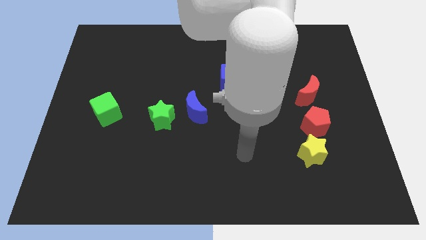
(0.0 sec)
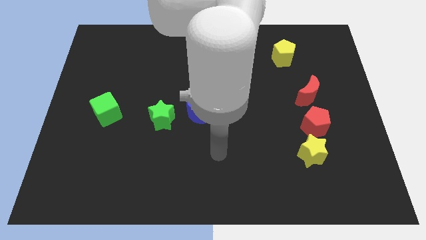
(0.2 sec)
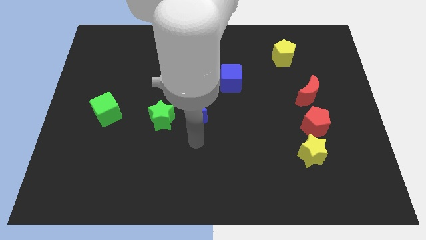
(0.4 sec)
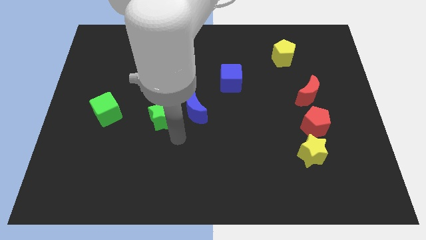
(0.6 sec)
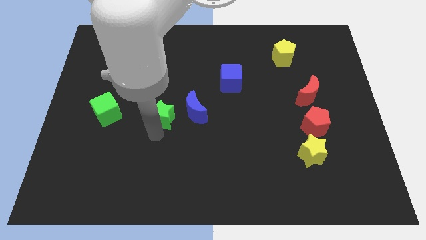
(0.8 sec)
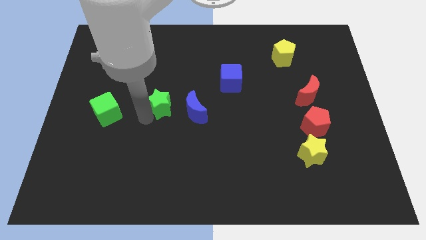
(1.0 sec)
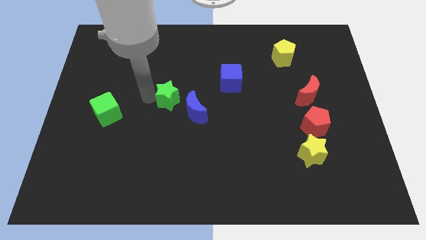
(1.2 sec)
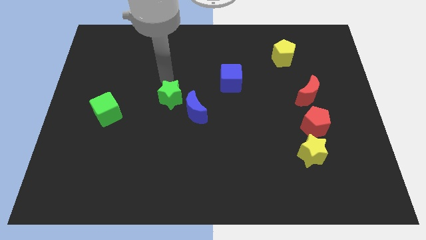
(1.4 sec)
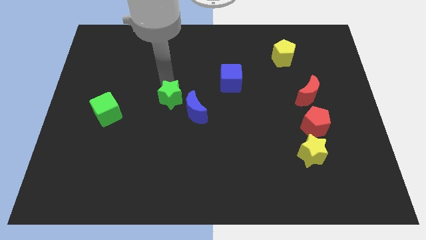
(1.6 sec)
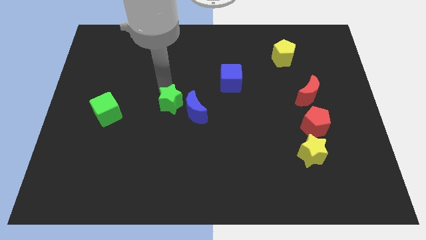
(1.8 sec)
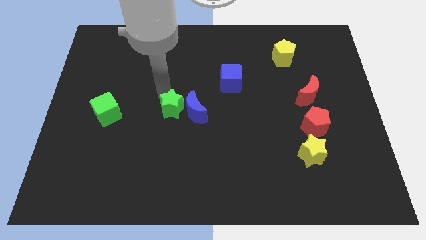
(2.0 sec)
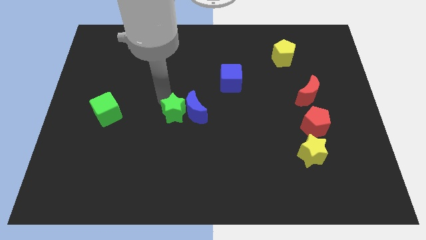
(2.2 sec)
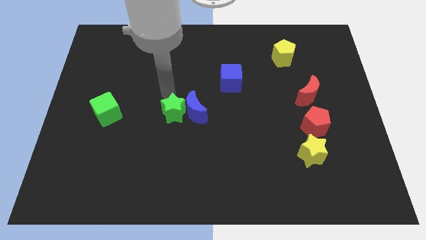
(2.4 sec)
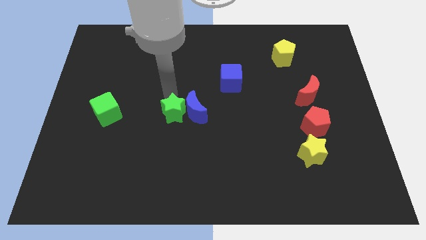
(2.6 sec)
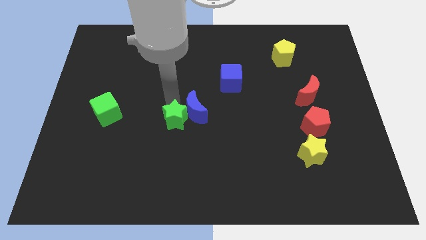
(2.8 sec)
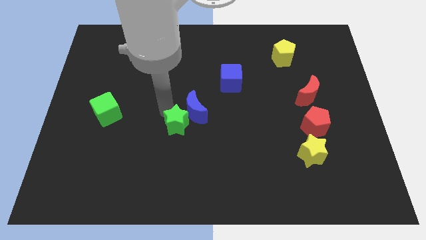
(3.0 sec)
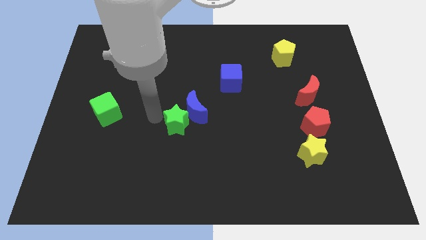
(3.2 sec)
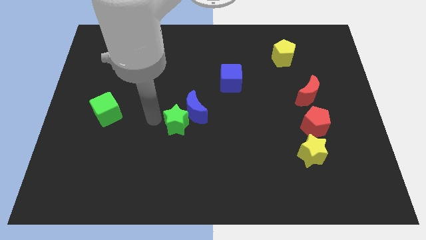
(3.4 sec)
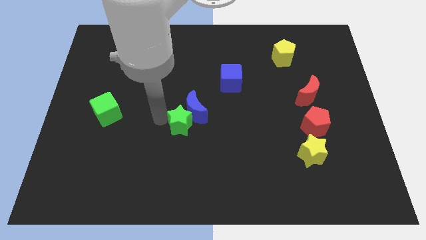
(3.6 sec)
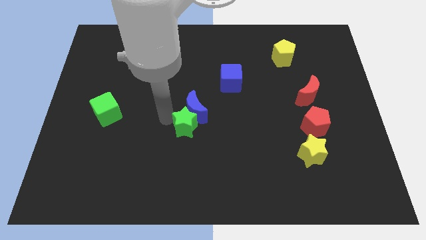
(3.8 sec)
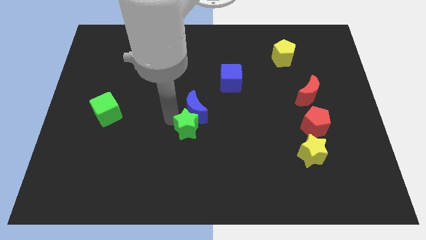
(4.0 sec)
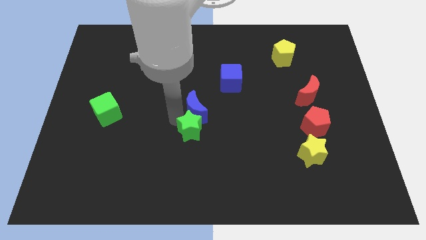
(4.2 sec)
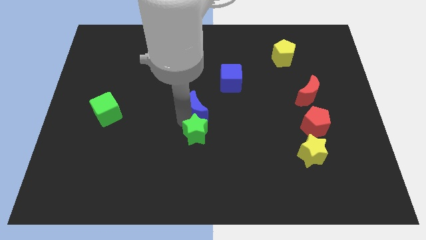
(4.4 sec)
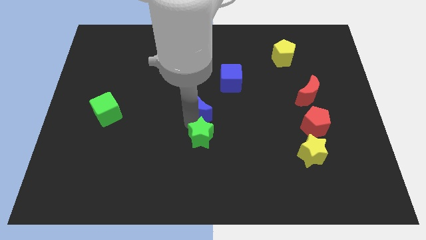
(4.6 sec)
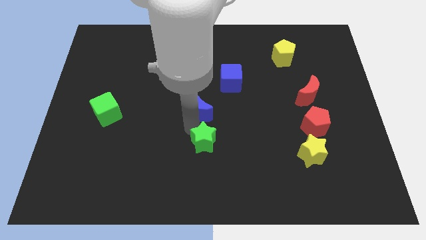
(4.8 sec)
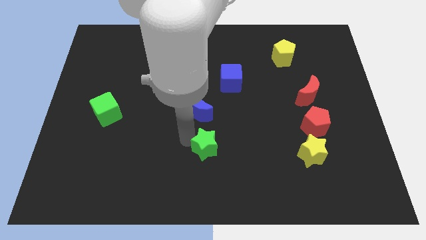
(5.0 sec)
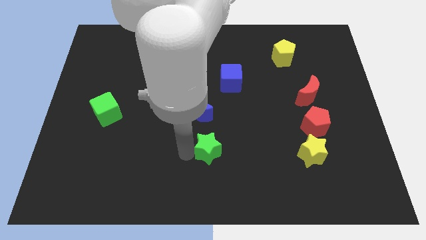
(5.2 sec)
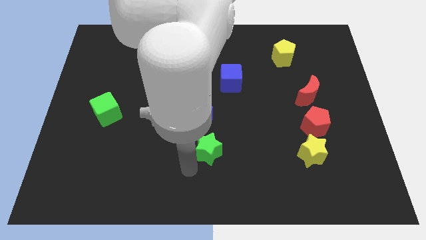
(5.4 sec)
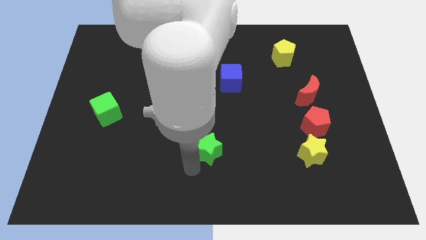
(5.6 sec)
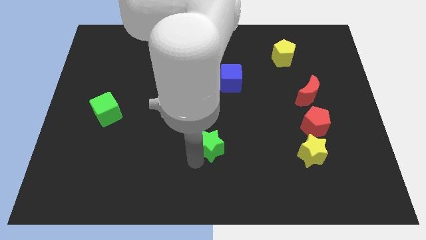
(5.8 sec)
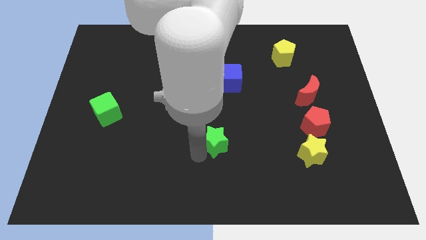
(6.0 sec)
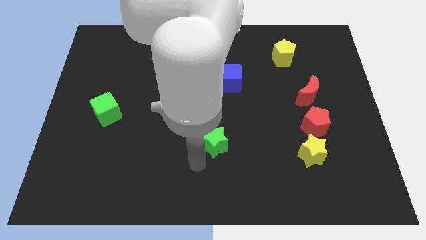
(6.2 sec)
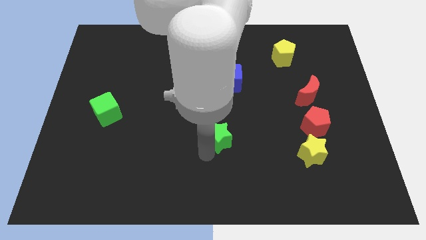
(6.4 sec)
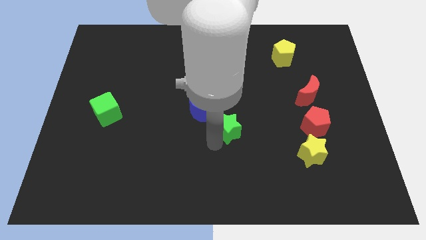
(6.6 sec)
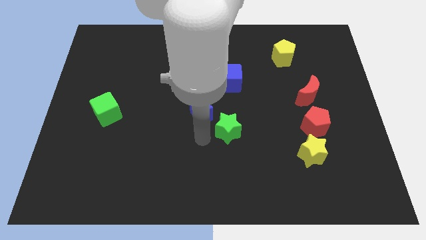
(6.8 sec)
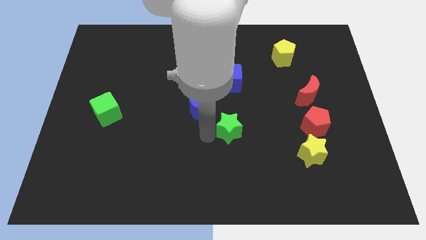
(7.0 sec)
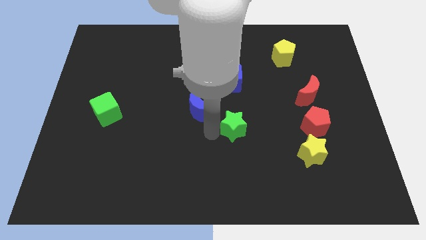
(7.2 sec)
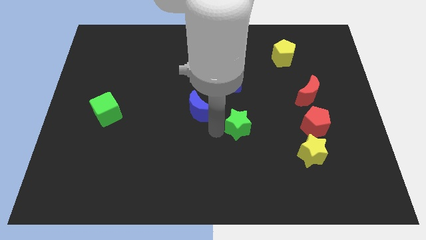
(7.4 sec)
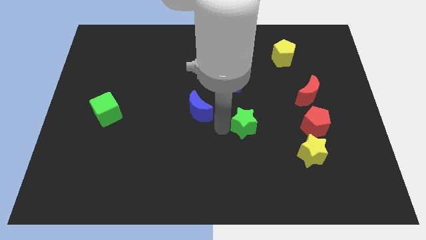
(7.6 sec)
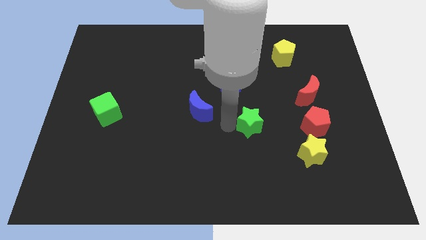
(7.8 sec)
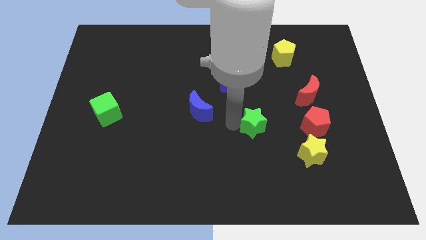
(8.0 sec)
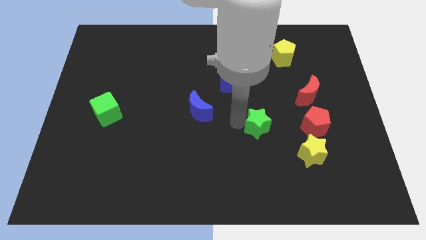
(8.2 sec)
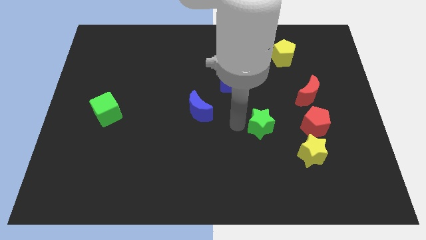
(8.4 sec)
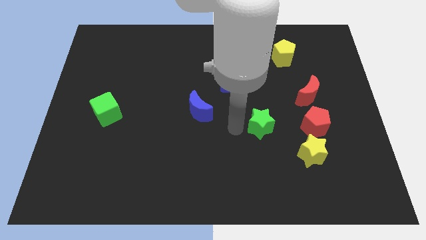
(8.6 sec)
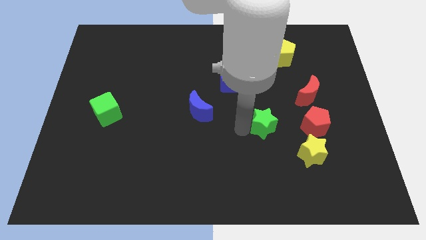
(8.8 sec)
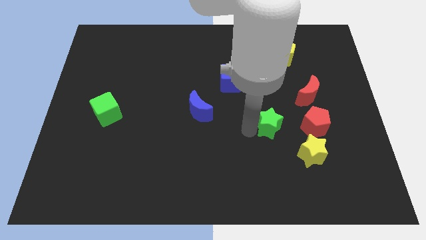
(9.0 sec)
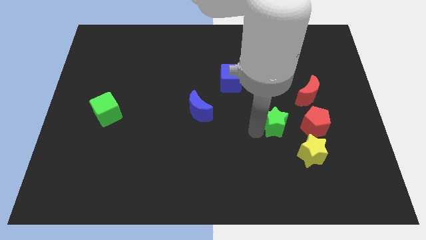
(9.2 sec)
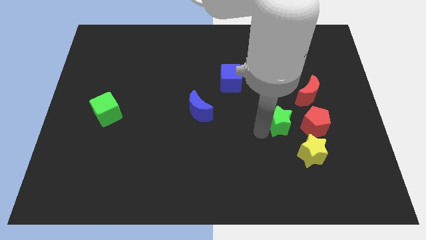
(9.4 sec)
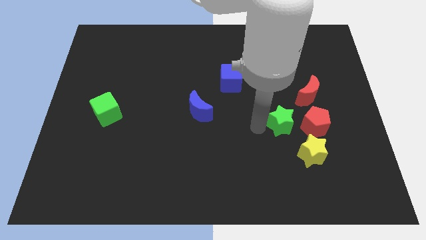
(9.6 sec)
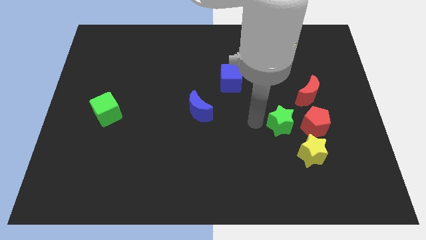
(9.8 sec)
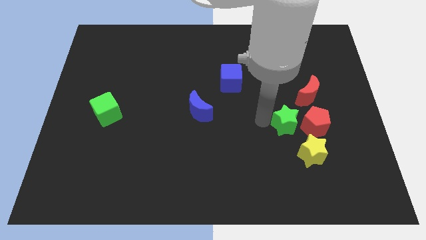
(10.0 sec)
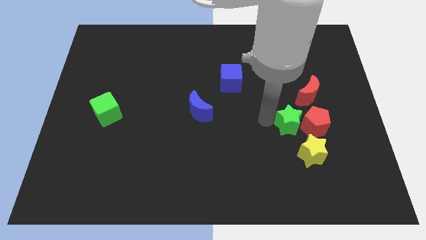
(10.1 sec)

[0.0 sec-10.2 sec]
slide the green star next to the red pentagon

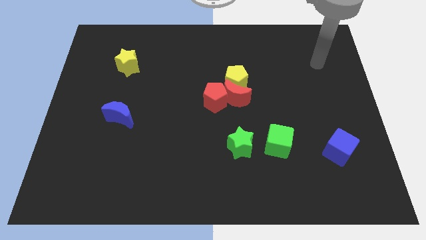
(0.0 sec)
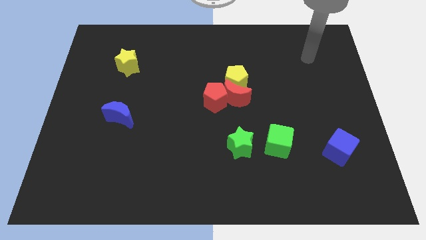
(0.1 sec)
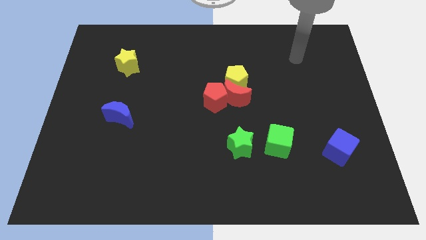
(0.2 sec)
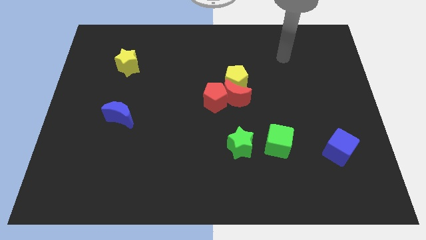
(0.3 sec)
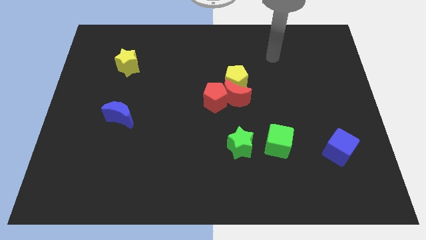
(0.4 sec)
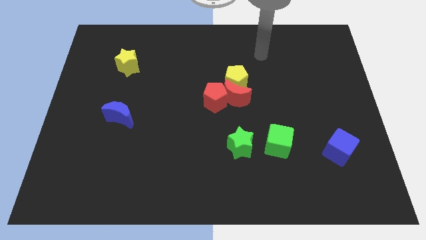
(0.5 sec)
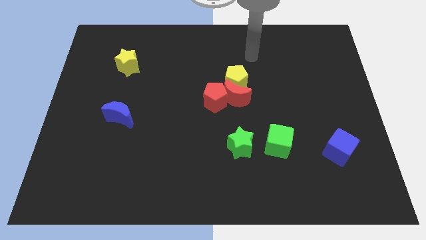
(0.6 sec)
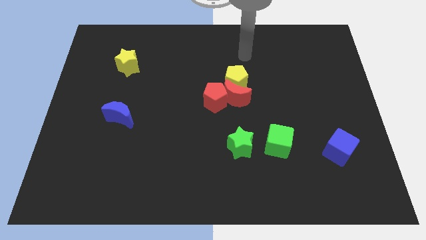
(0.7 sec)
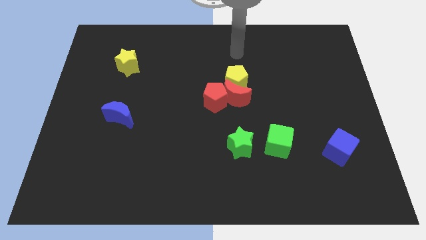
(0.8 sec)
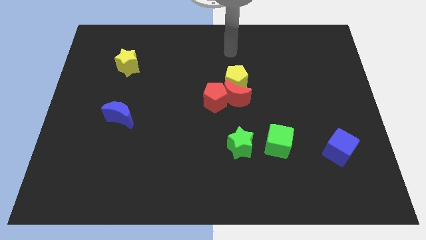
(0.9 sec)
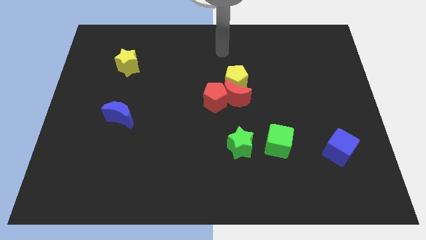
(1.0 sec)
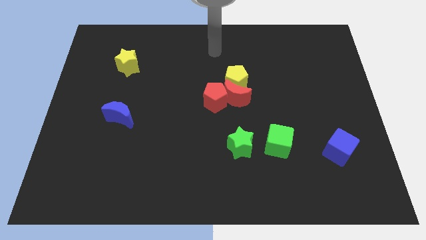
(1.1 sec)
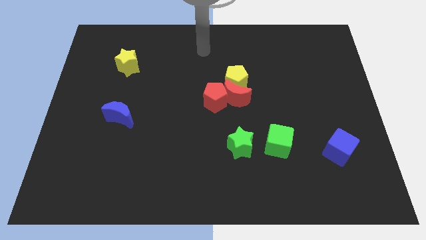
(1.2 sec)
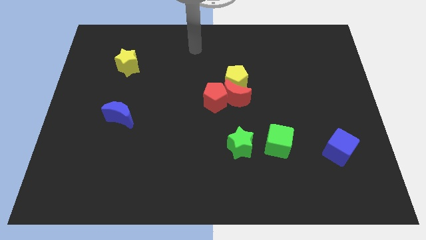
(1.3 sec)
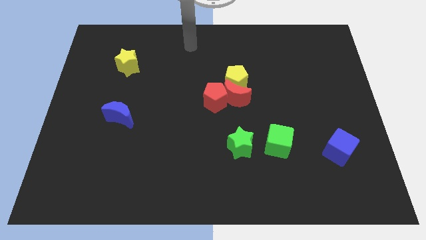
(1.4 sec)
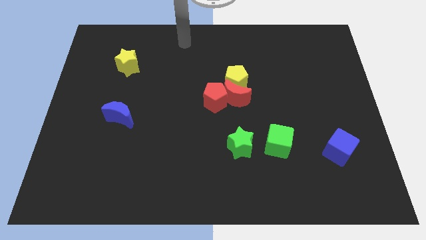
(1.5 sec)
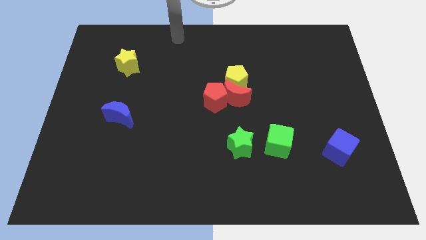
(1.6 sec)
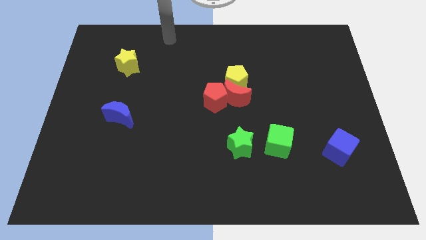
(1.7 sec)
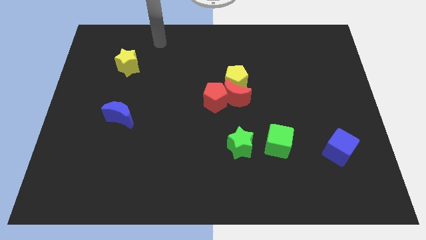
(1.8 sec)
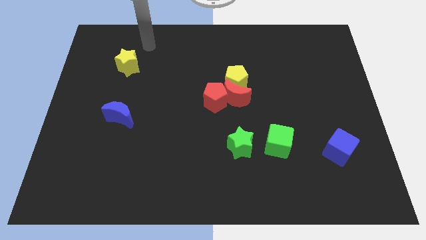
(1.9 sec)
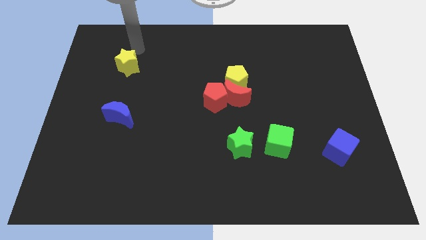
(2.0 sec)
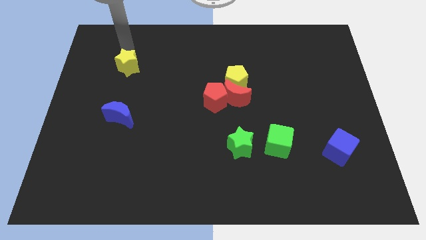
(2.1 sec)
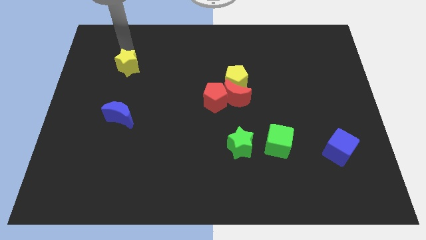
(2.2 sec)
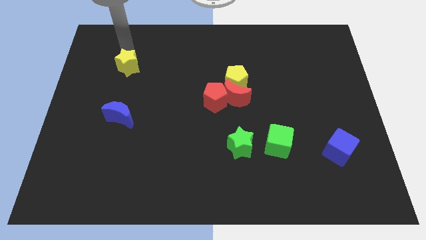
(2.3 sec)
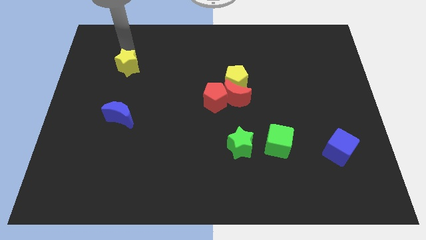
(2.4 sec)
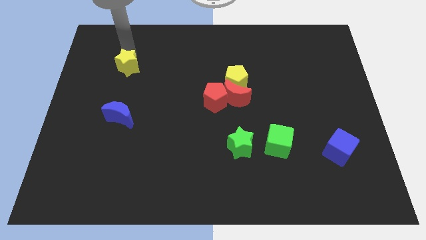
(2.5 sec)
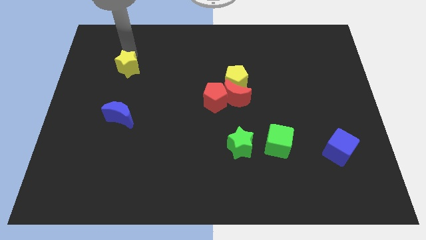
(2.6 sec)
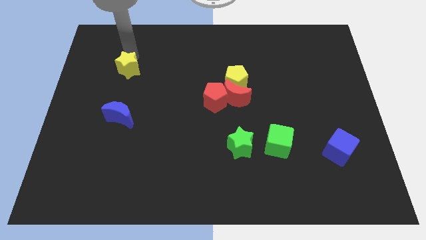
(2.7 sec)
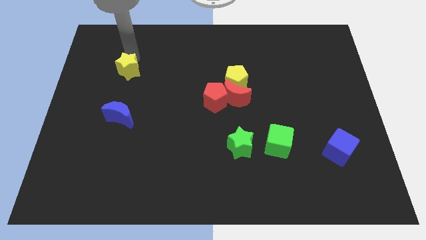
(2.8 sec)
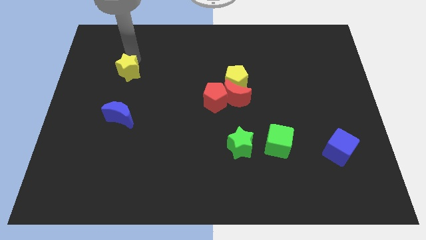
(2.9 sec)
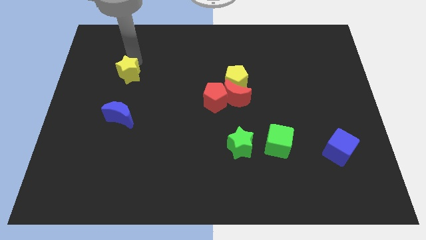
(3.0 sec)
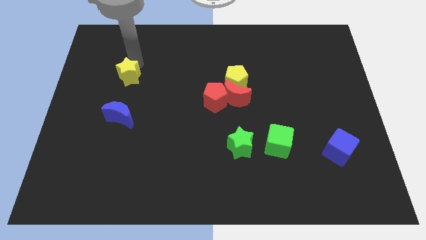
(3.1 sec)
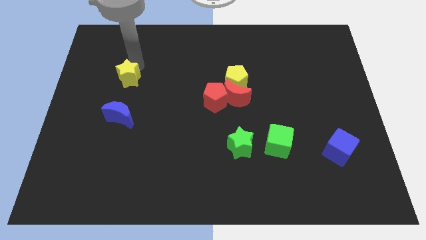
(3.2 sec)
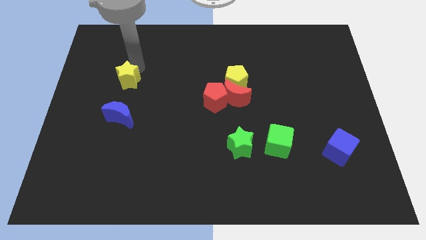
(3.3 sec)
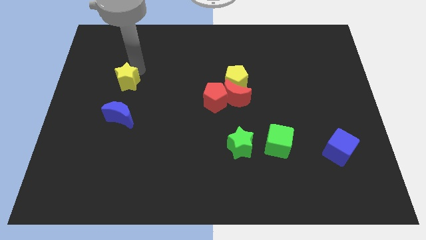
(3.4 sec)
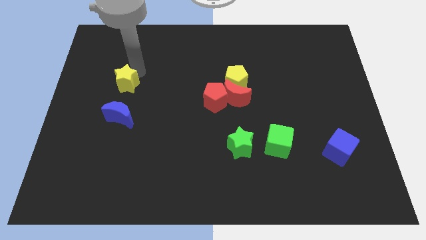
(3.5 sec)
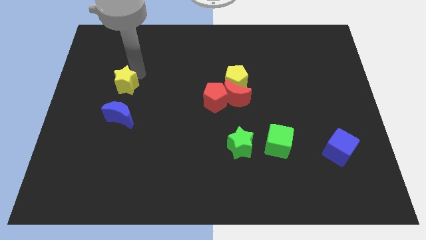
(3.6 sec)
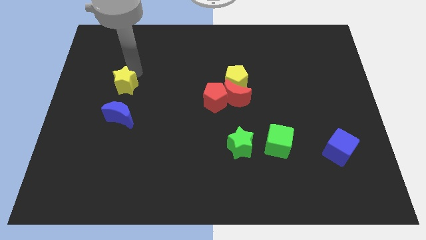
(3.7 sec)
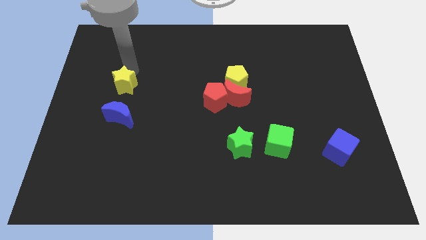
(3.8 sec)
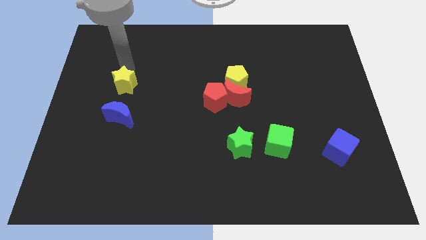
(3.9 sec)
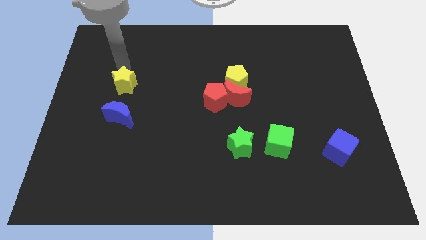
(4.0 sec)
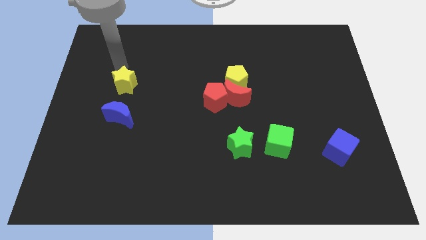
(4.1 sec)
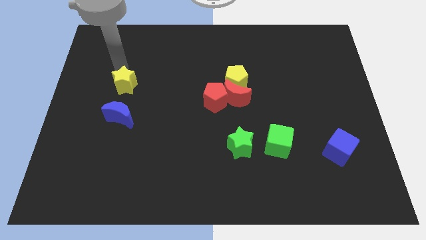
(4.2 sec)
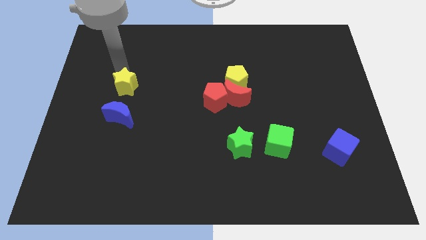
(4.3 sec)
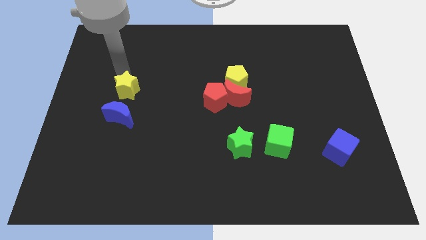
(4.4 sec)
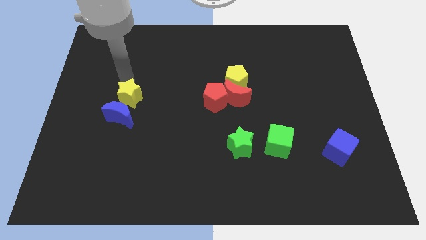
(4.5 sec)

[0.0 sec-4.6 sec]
slide the yellow star next to the blue moon
